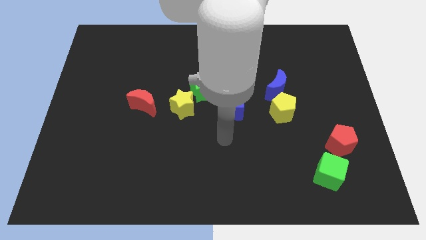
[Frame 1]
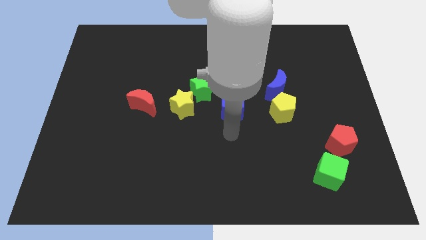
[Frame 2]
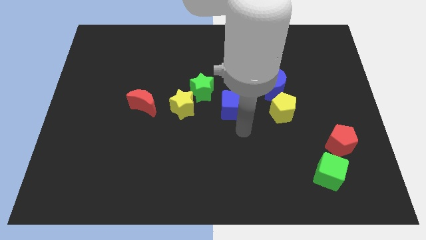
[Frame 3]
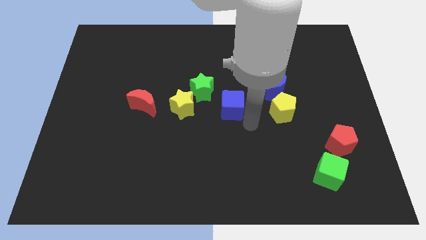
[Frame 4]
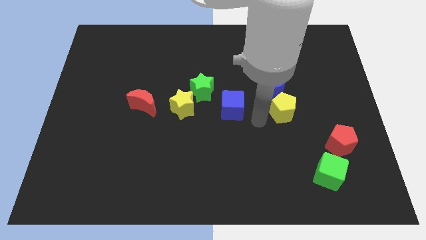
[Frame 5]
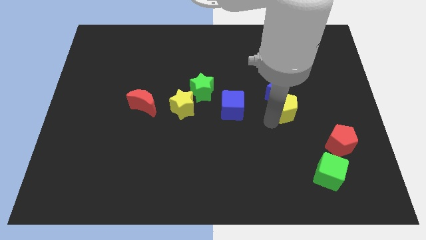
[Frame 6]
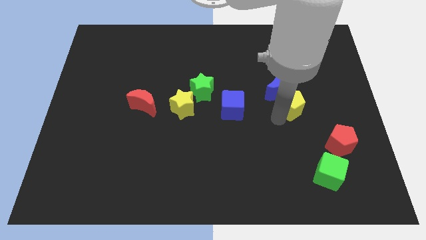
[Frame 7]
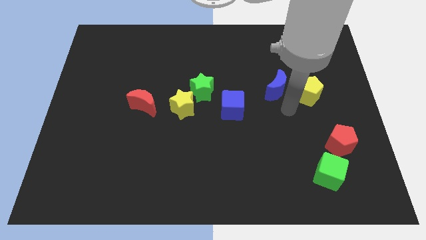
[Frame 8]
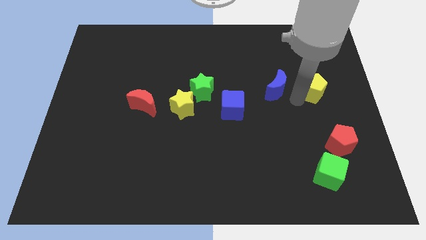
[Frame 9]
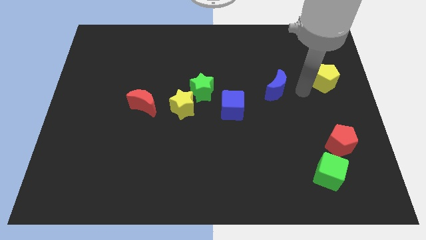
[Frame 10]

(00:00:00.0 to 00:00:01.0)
pull the blue moon apart from the yellow pentagon

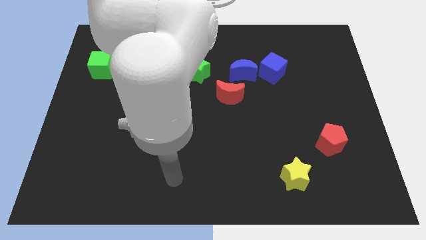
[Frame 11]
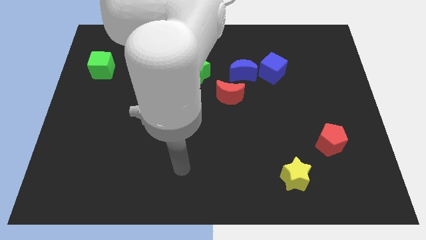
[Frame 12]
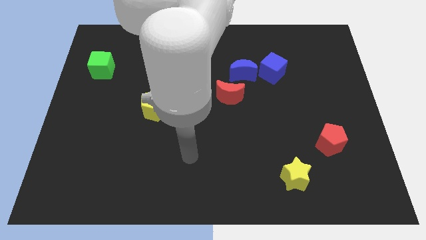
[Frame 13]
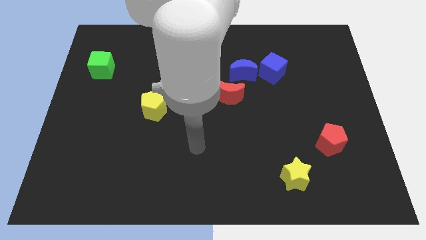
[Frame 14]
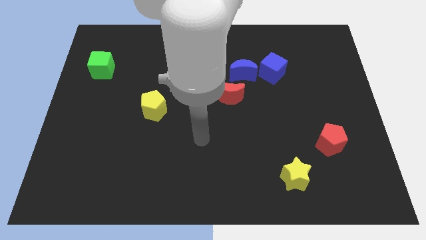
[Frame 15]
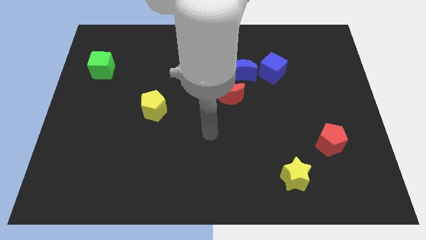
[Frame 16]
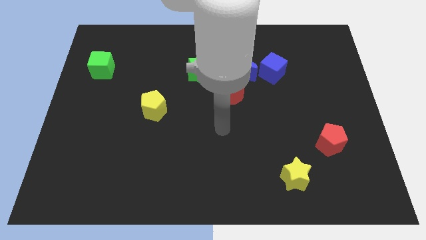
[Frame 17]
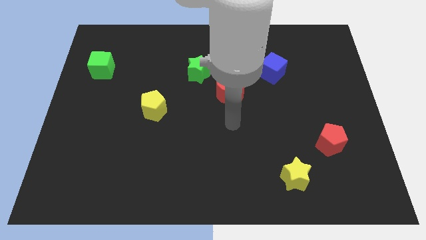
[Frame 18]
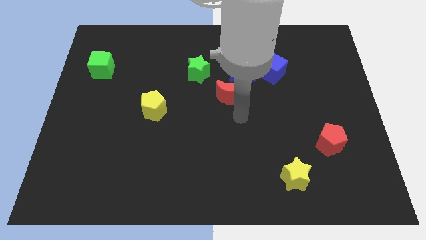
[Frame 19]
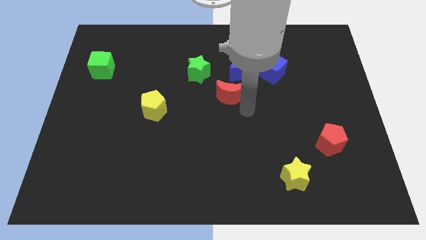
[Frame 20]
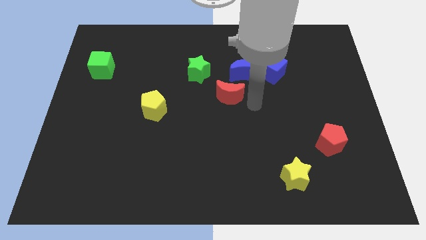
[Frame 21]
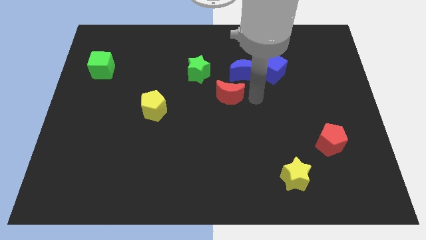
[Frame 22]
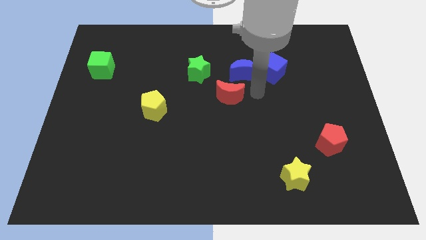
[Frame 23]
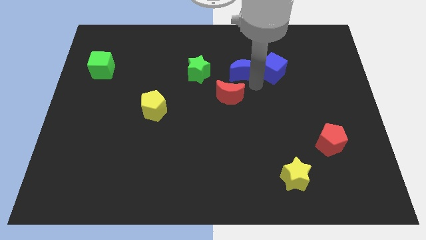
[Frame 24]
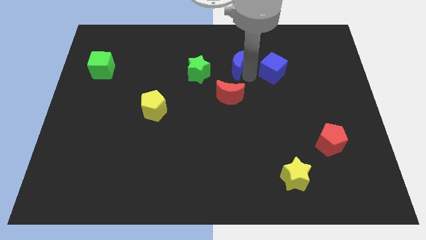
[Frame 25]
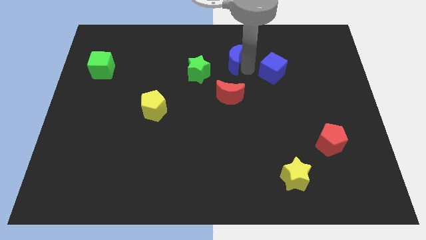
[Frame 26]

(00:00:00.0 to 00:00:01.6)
pull the blue cube apart from the blue moon

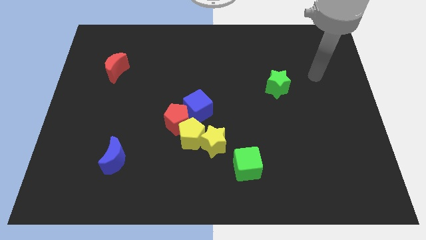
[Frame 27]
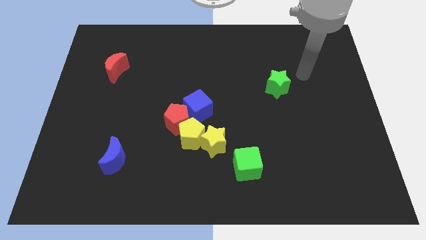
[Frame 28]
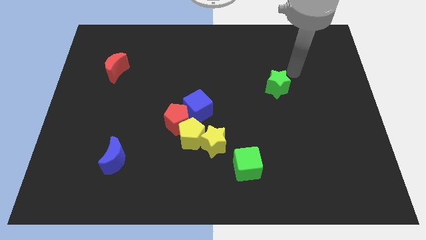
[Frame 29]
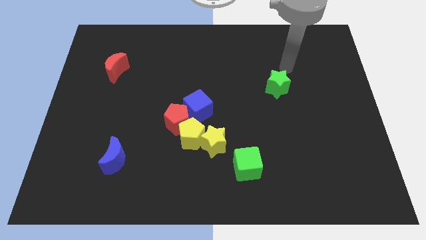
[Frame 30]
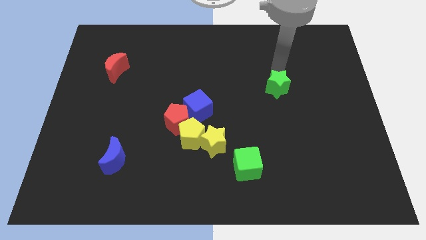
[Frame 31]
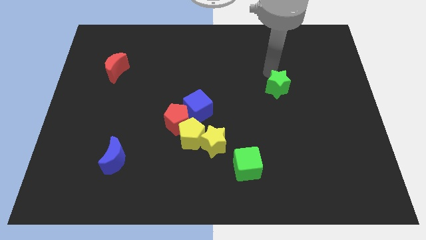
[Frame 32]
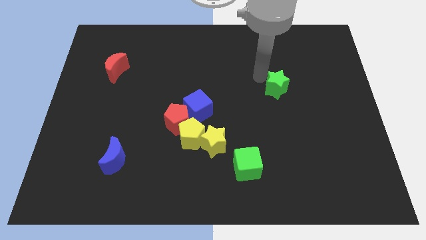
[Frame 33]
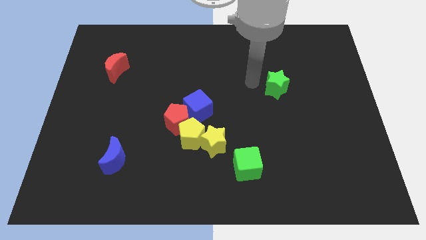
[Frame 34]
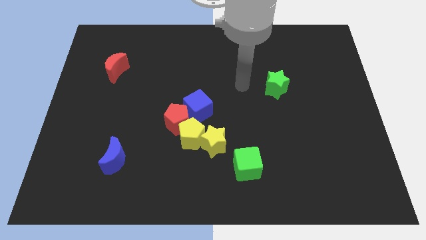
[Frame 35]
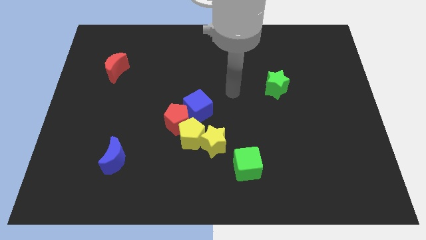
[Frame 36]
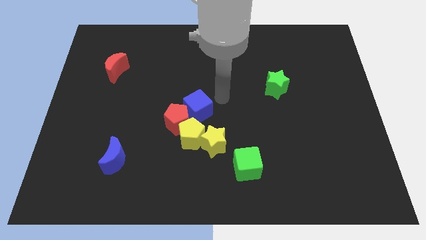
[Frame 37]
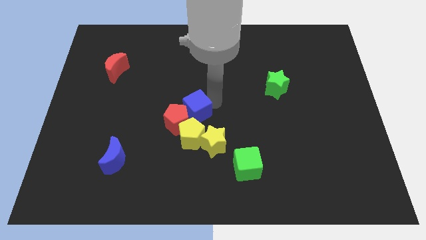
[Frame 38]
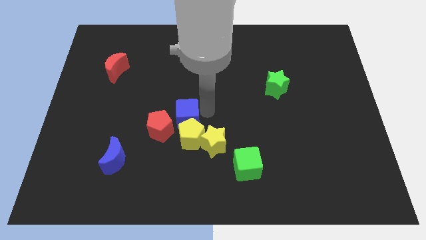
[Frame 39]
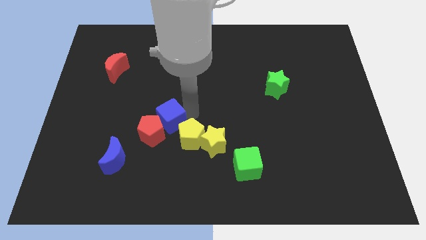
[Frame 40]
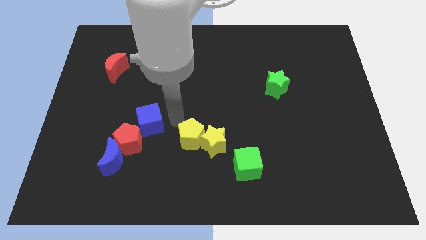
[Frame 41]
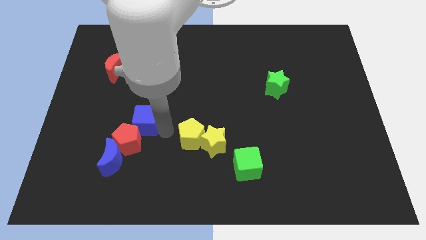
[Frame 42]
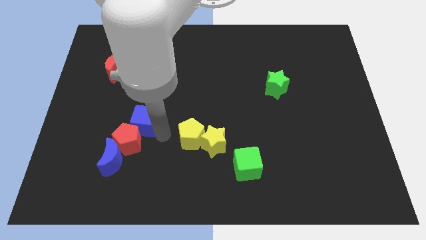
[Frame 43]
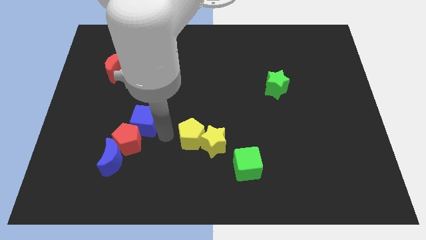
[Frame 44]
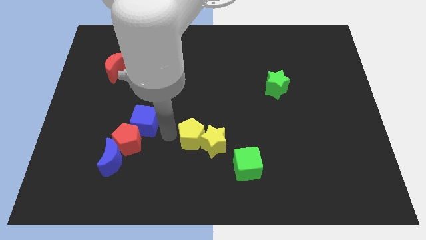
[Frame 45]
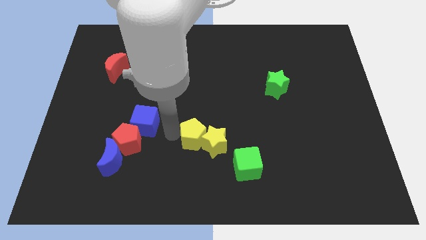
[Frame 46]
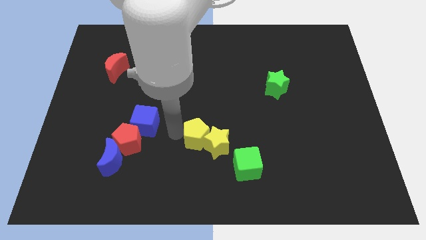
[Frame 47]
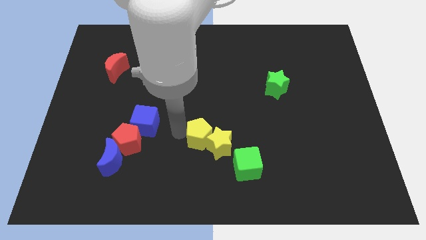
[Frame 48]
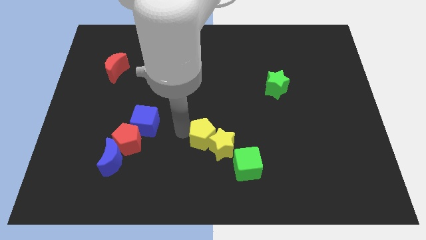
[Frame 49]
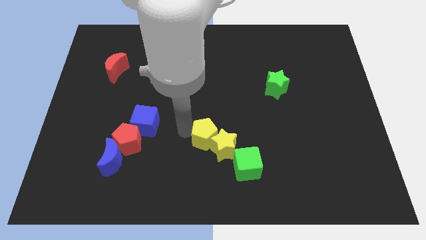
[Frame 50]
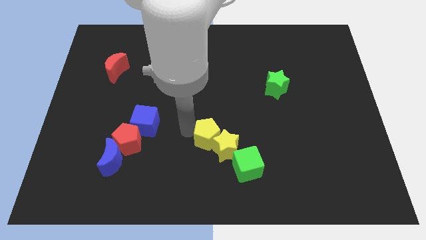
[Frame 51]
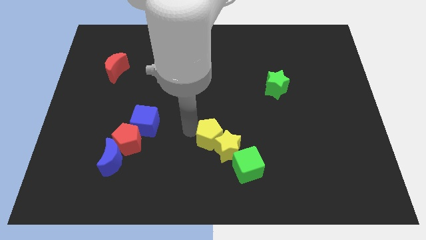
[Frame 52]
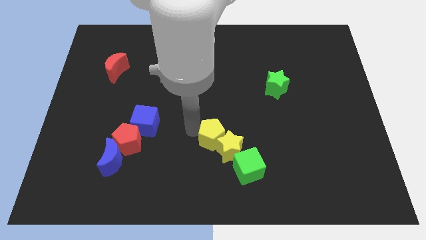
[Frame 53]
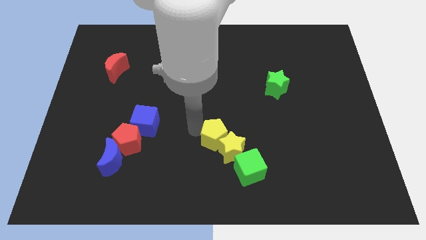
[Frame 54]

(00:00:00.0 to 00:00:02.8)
pull the yellow pentagon apart from the group of blocks

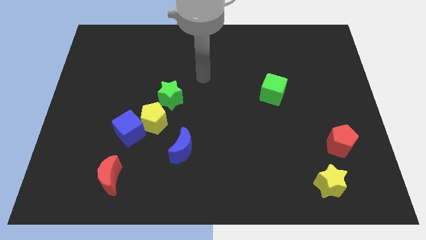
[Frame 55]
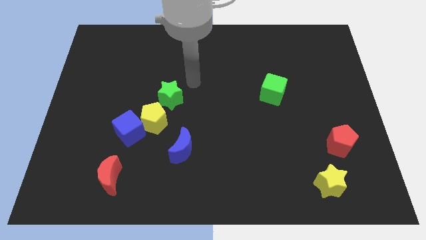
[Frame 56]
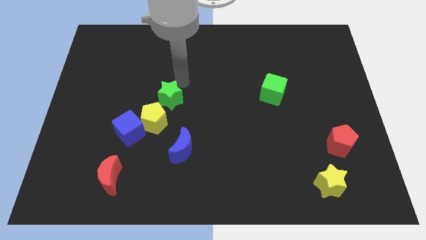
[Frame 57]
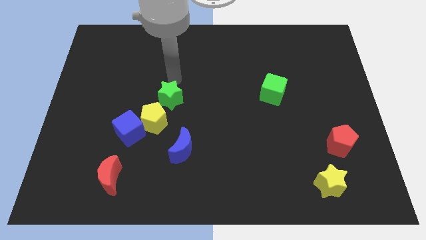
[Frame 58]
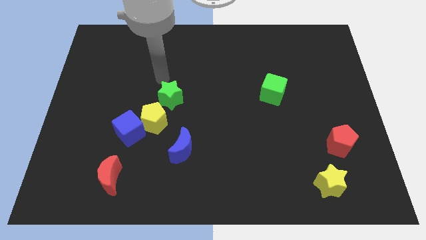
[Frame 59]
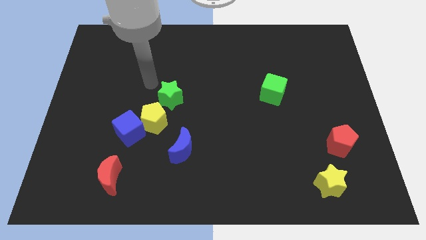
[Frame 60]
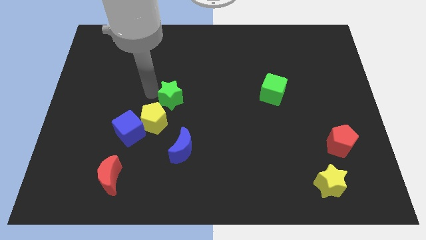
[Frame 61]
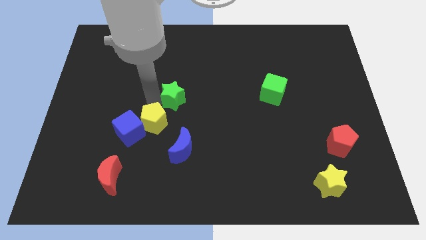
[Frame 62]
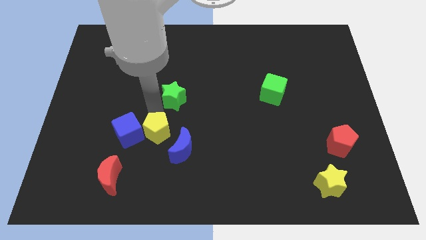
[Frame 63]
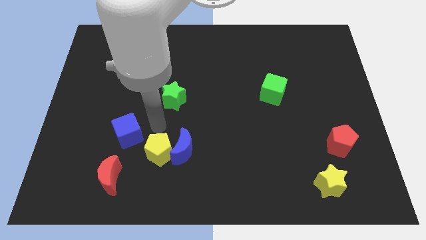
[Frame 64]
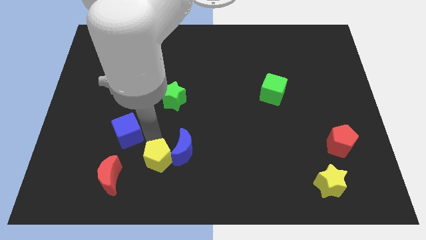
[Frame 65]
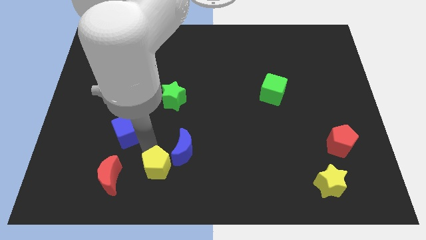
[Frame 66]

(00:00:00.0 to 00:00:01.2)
pull the blue cube apart from the yellow pentagon

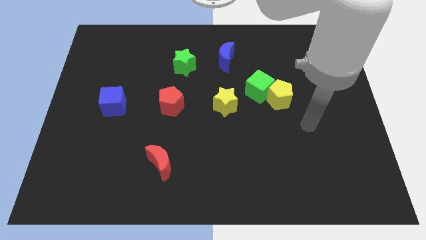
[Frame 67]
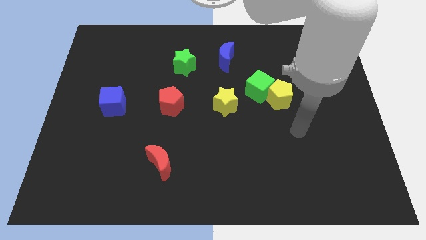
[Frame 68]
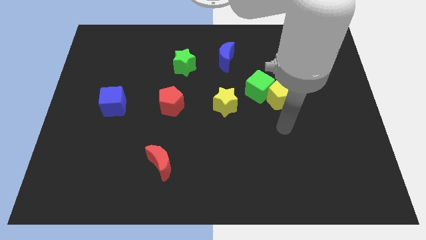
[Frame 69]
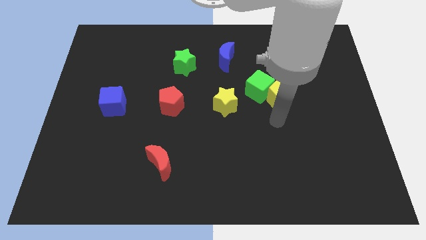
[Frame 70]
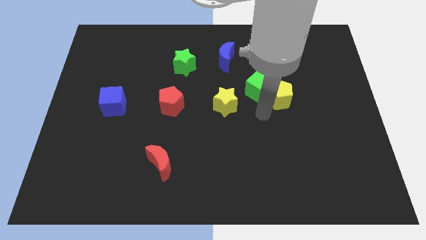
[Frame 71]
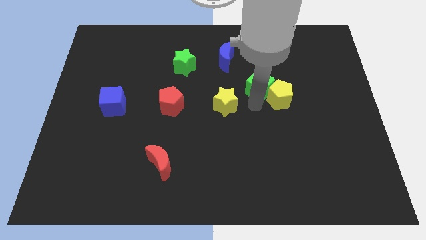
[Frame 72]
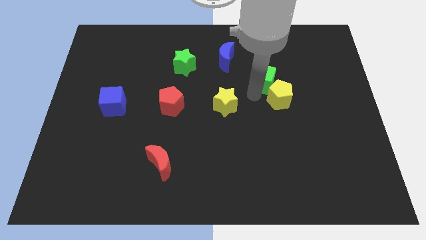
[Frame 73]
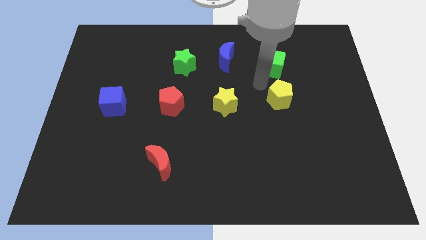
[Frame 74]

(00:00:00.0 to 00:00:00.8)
separate the yellow pentagon from the green cube

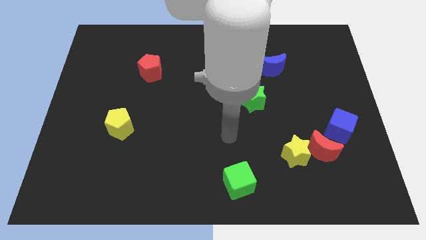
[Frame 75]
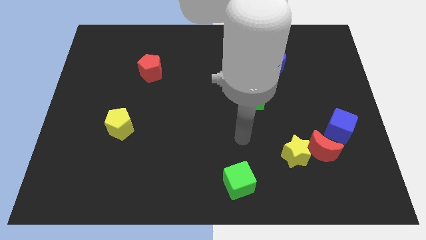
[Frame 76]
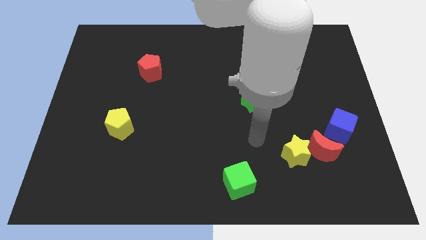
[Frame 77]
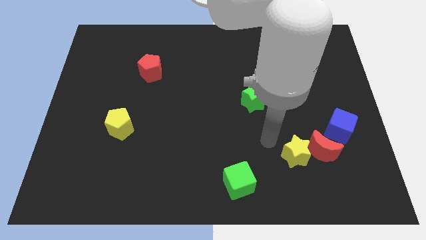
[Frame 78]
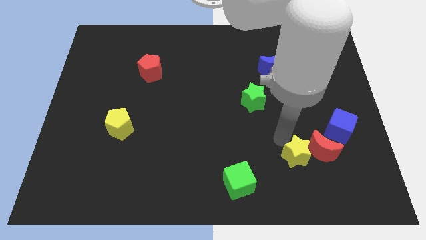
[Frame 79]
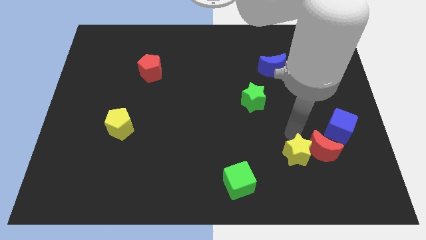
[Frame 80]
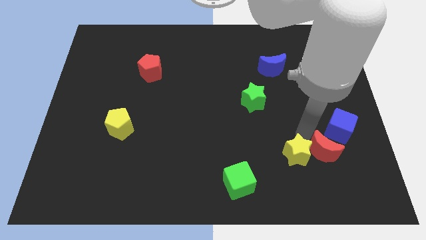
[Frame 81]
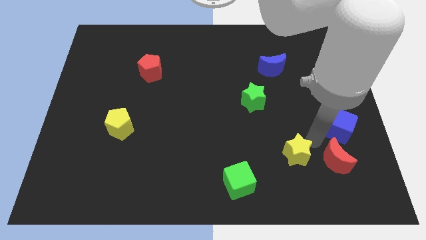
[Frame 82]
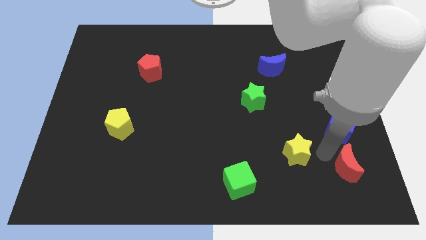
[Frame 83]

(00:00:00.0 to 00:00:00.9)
pull the yellow star apart from the red moon

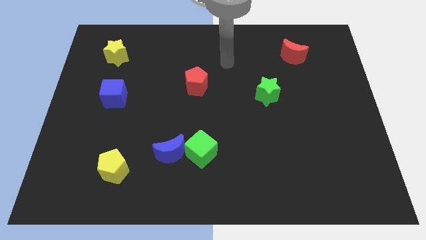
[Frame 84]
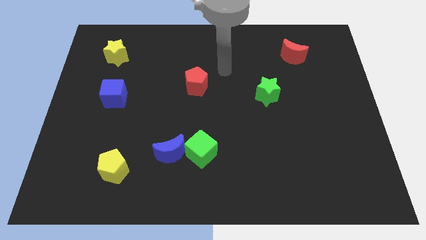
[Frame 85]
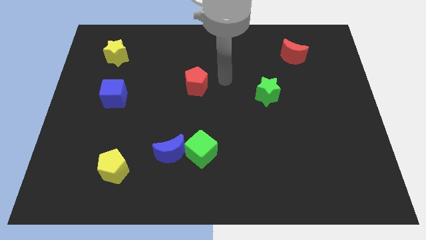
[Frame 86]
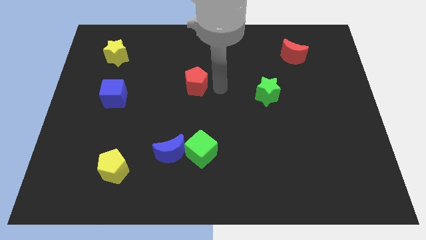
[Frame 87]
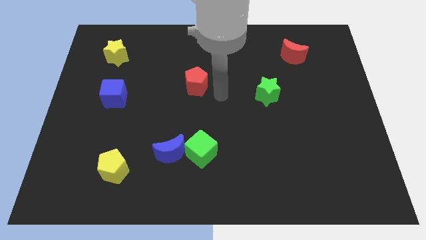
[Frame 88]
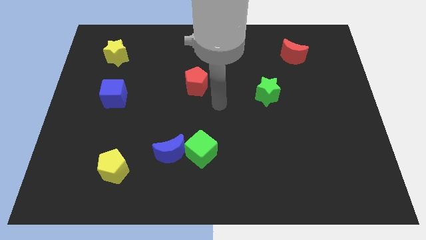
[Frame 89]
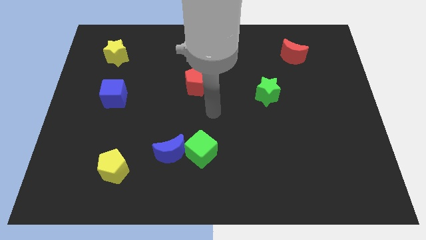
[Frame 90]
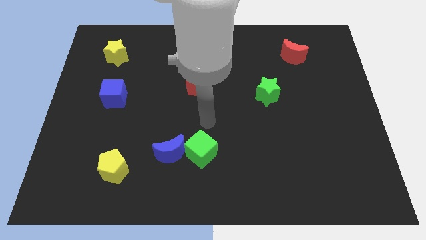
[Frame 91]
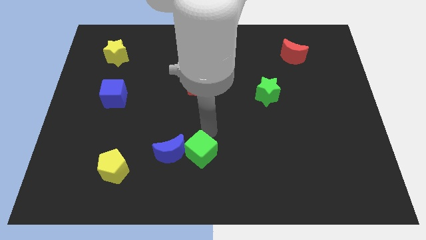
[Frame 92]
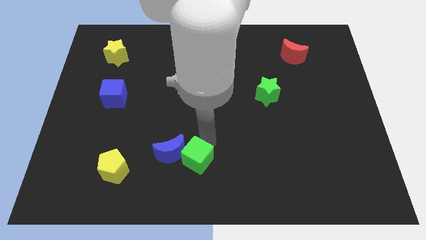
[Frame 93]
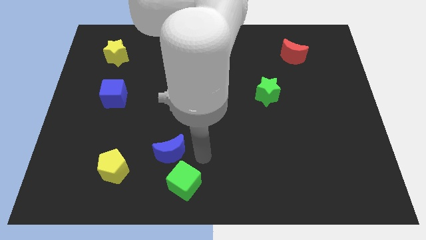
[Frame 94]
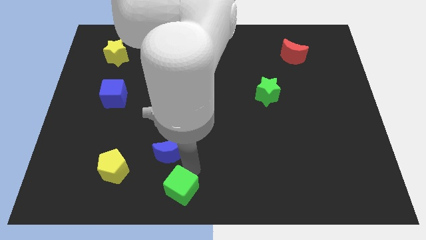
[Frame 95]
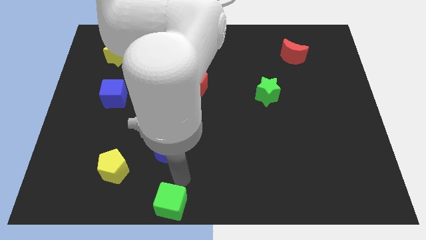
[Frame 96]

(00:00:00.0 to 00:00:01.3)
separate the blue moon from the green cube
